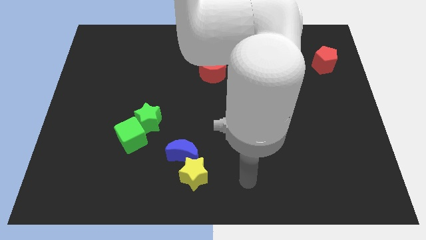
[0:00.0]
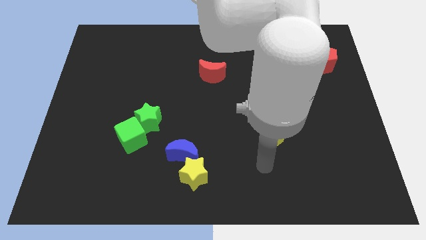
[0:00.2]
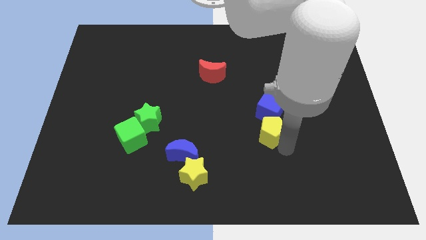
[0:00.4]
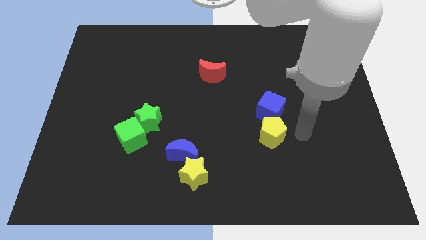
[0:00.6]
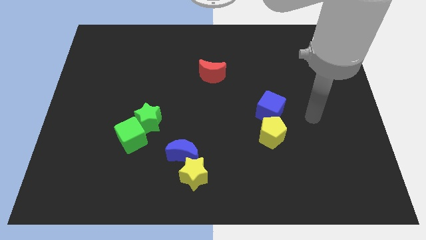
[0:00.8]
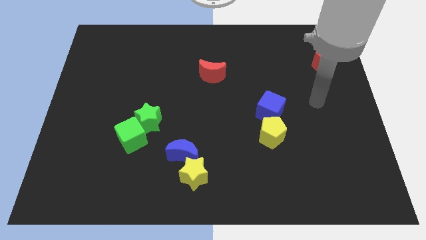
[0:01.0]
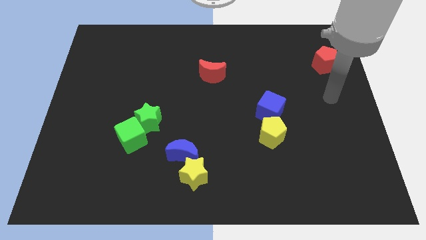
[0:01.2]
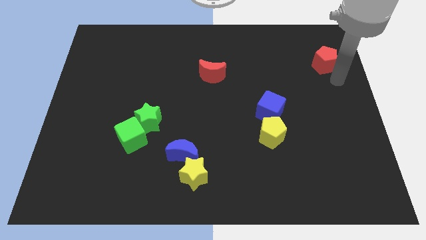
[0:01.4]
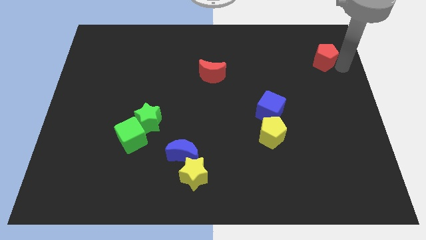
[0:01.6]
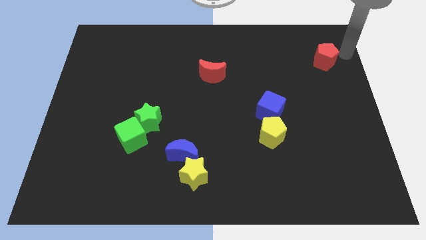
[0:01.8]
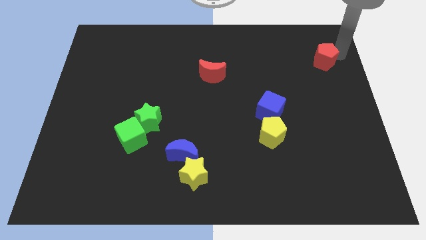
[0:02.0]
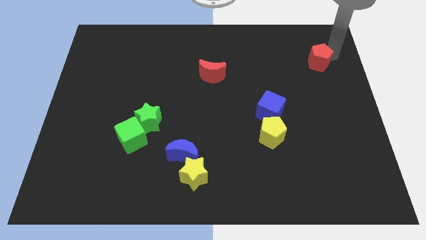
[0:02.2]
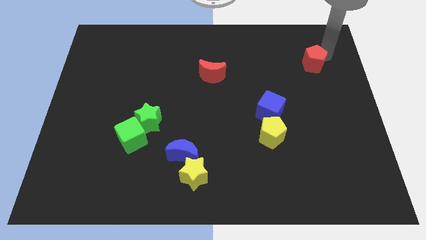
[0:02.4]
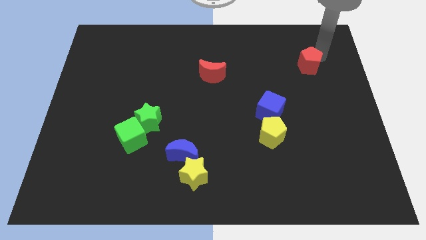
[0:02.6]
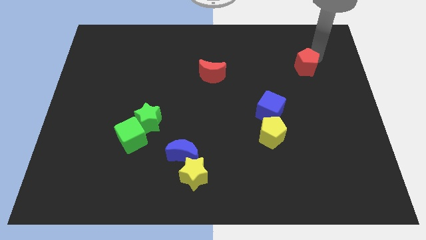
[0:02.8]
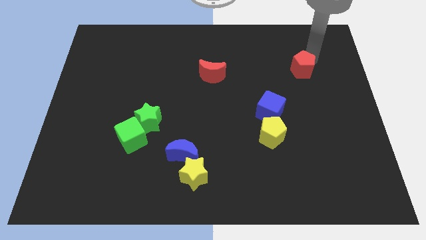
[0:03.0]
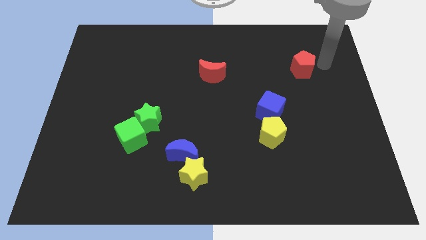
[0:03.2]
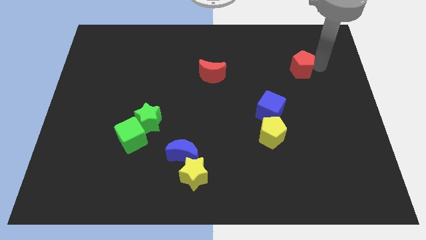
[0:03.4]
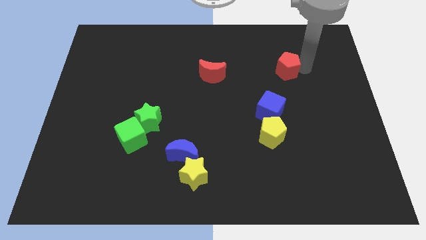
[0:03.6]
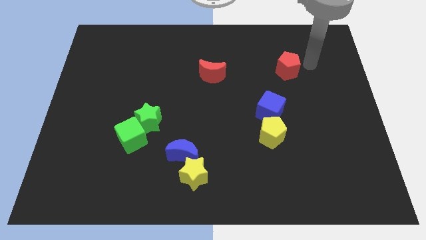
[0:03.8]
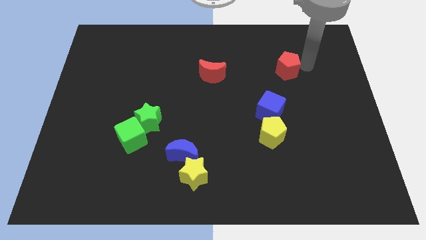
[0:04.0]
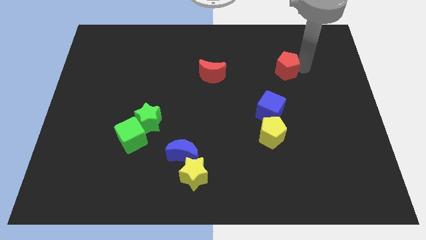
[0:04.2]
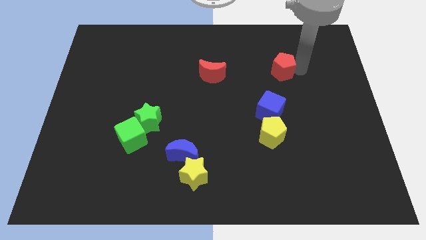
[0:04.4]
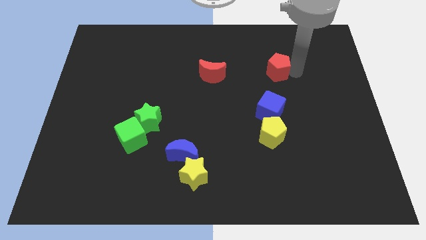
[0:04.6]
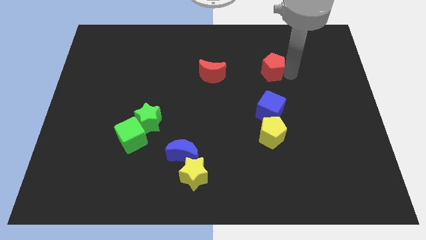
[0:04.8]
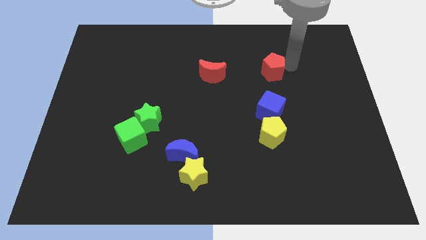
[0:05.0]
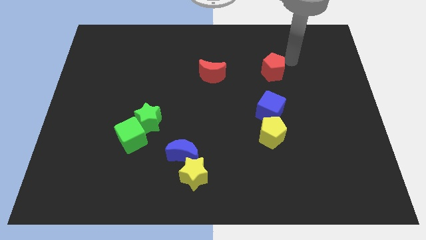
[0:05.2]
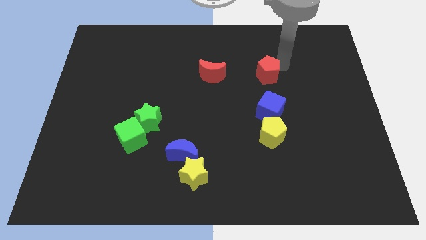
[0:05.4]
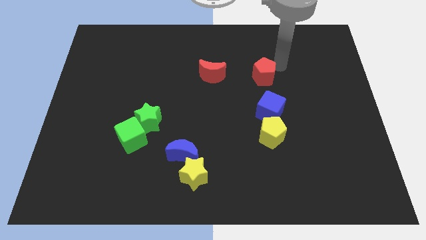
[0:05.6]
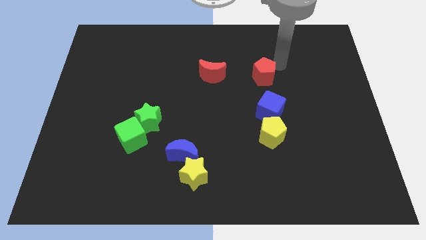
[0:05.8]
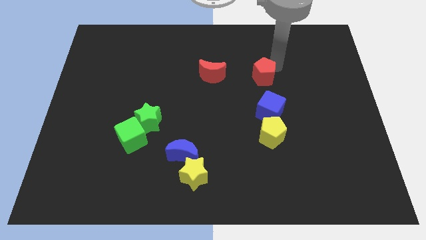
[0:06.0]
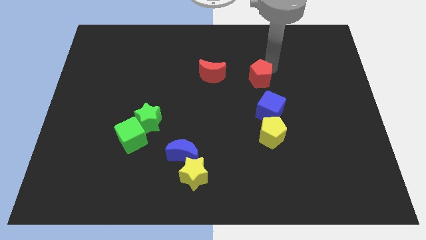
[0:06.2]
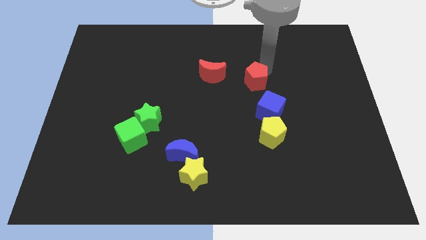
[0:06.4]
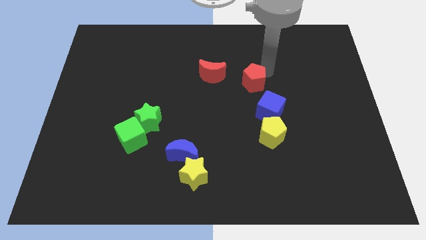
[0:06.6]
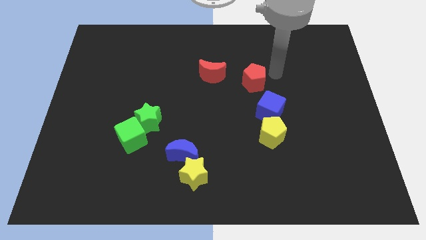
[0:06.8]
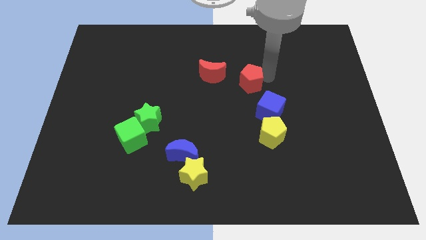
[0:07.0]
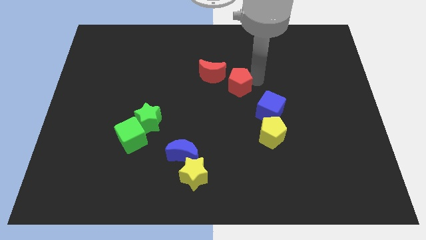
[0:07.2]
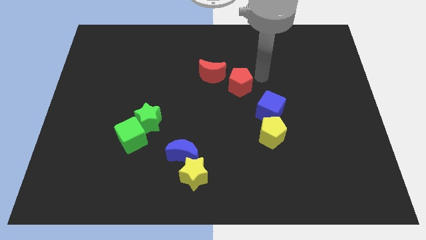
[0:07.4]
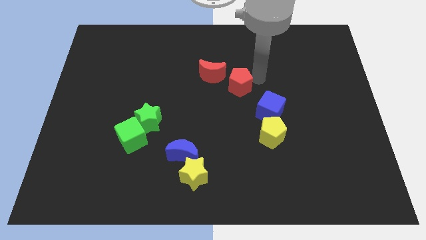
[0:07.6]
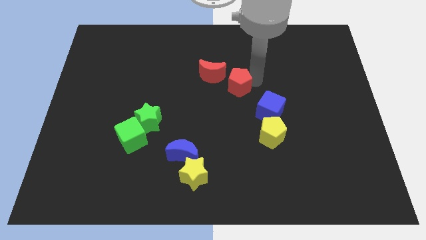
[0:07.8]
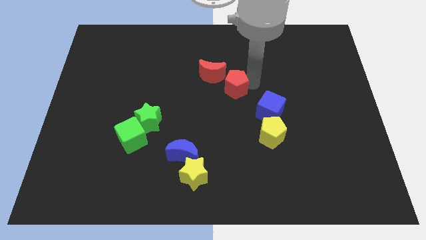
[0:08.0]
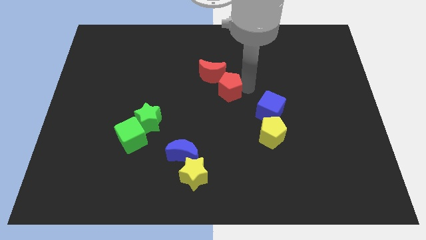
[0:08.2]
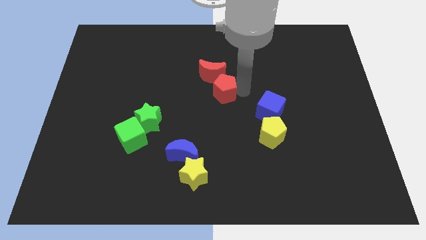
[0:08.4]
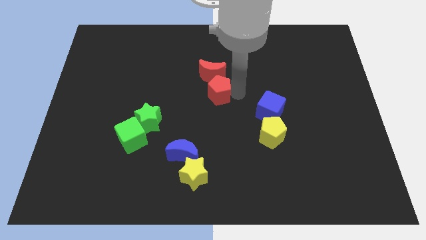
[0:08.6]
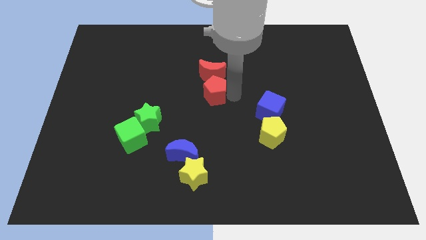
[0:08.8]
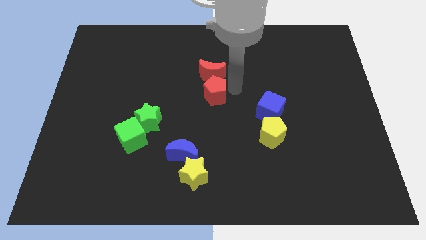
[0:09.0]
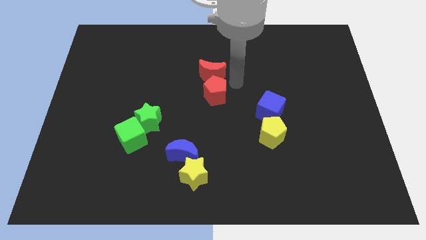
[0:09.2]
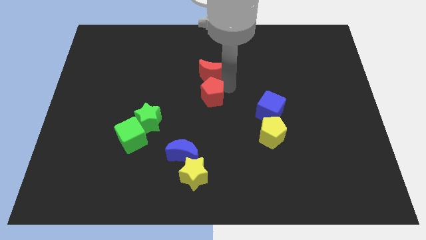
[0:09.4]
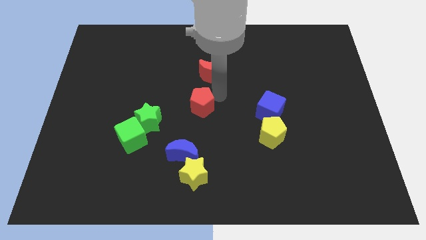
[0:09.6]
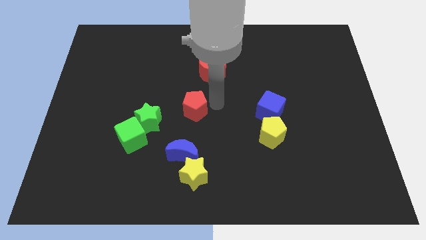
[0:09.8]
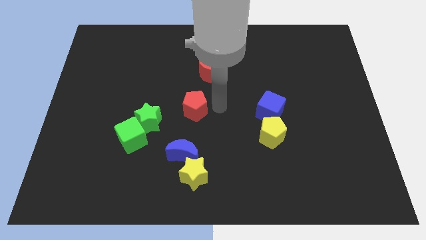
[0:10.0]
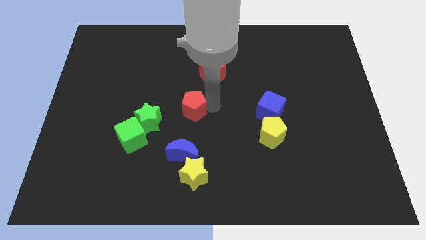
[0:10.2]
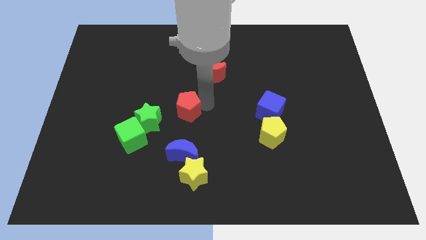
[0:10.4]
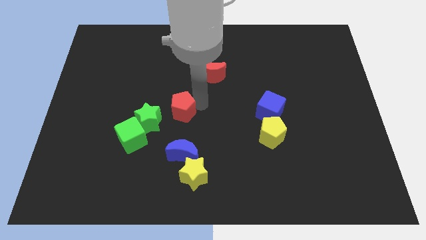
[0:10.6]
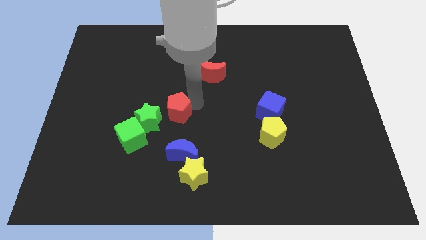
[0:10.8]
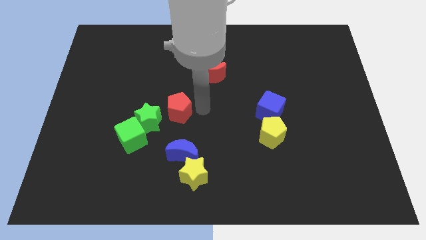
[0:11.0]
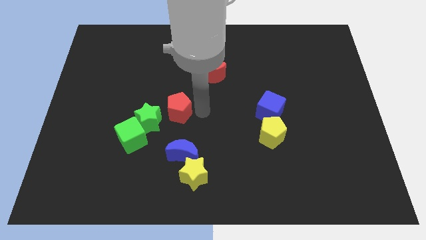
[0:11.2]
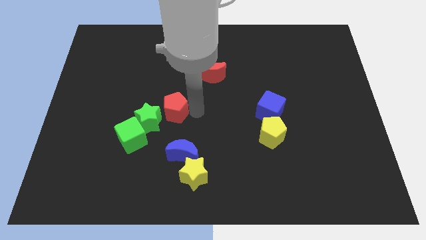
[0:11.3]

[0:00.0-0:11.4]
push the red pentagon next to the green star
